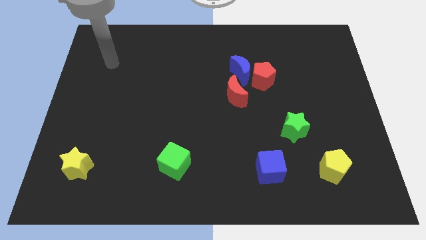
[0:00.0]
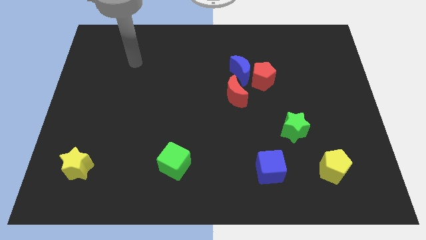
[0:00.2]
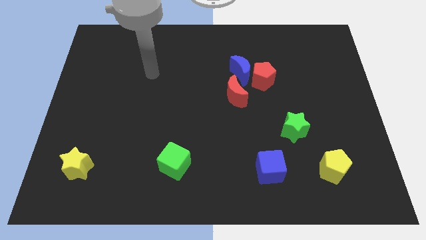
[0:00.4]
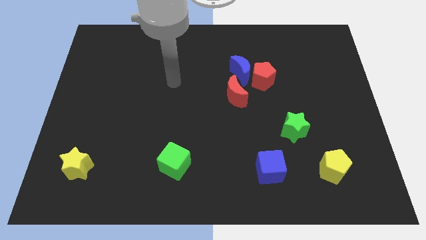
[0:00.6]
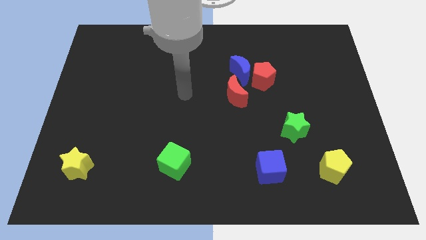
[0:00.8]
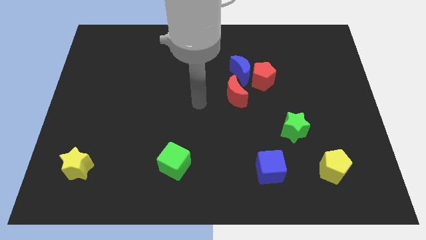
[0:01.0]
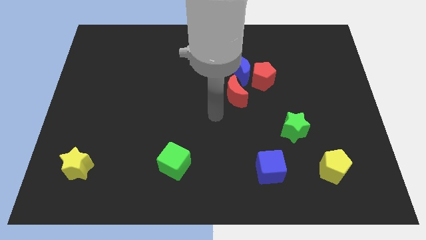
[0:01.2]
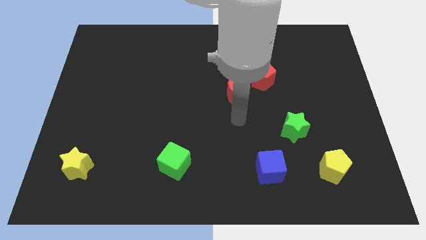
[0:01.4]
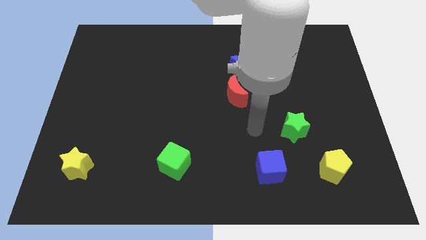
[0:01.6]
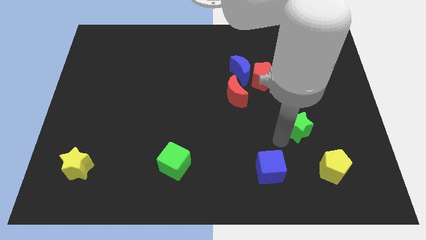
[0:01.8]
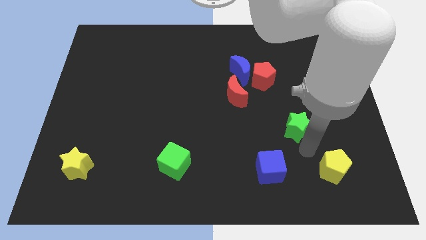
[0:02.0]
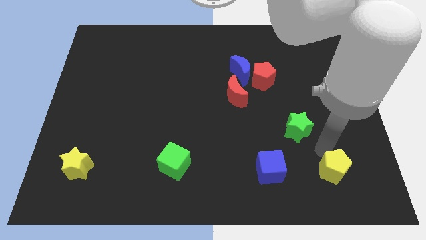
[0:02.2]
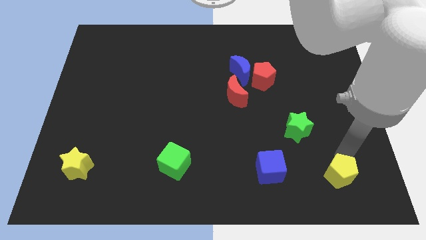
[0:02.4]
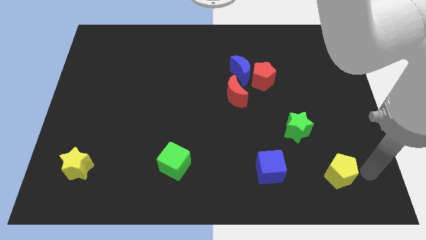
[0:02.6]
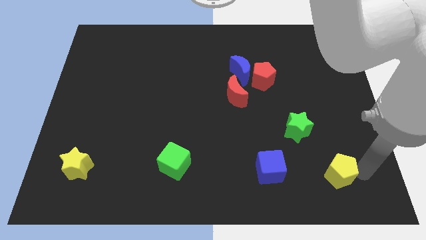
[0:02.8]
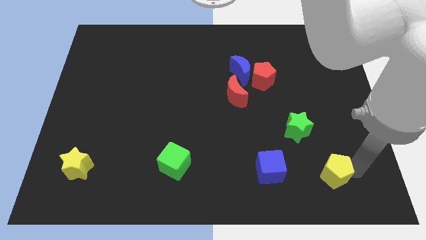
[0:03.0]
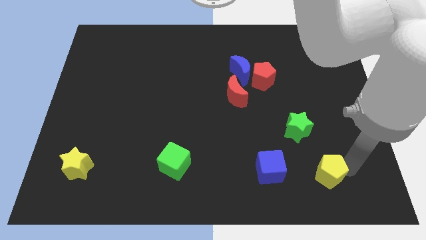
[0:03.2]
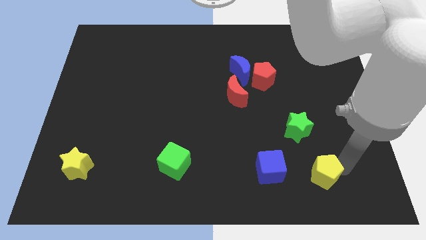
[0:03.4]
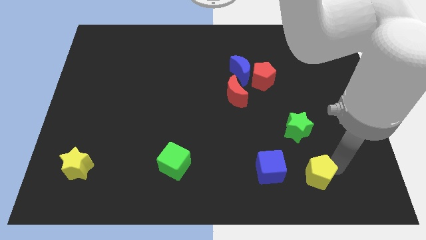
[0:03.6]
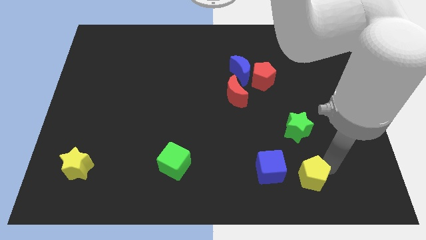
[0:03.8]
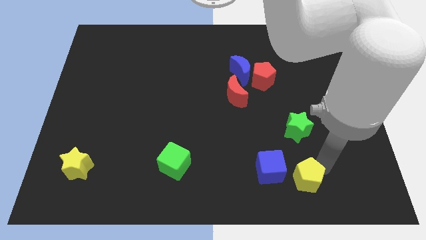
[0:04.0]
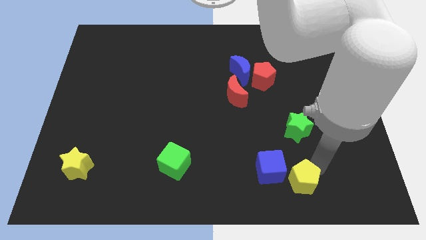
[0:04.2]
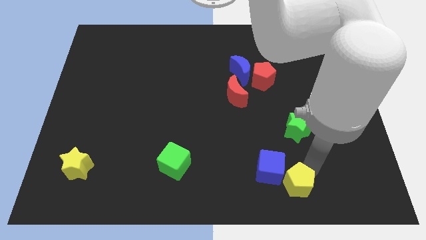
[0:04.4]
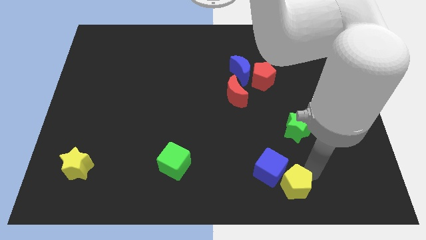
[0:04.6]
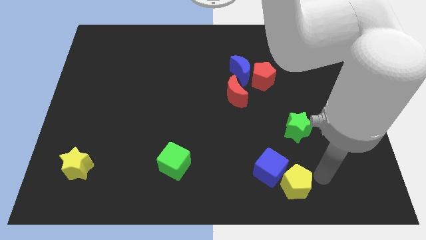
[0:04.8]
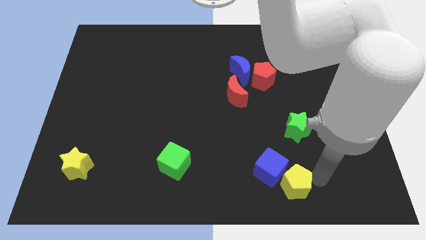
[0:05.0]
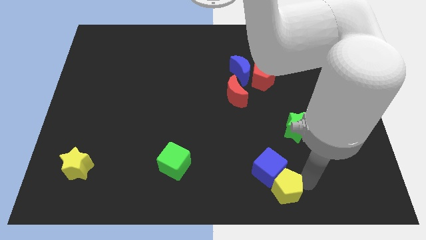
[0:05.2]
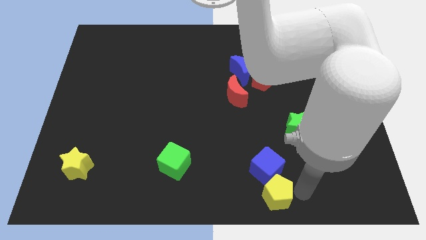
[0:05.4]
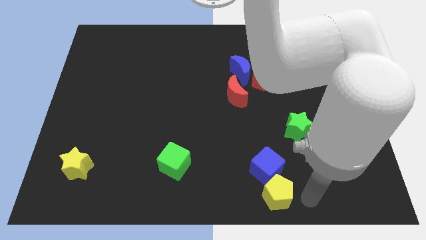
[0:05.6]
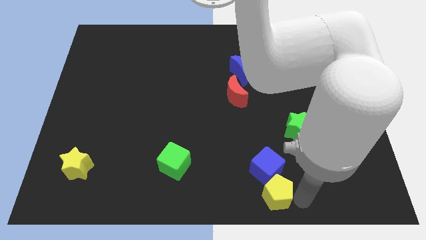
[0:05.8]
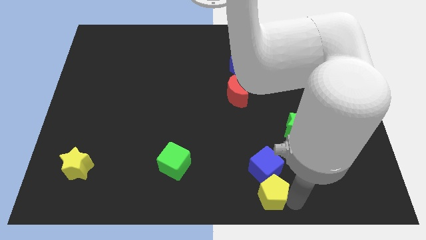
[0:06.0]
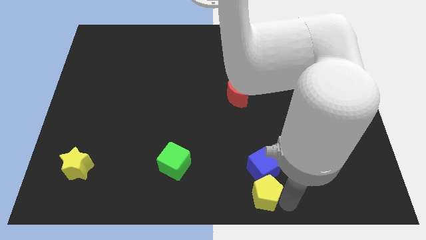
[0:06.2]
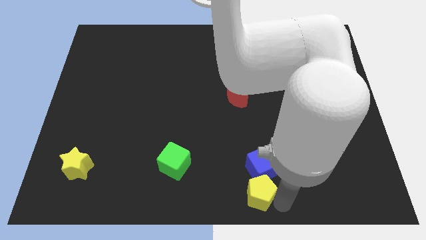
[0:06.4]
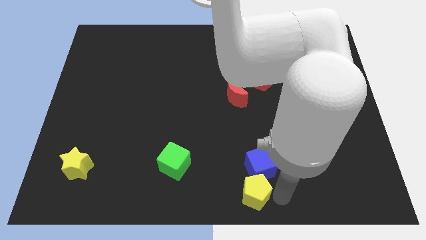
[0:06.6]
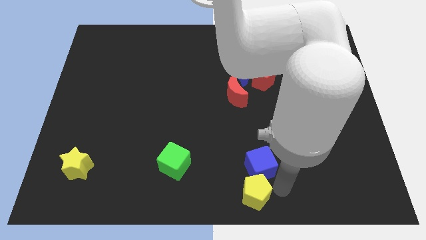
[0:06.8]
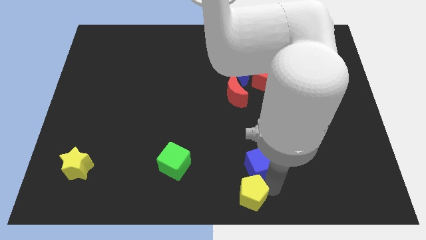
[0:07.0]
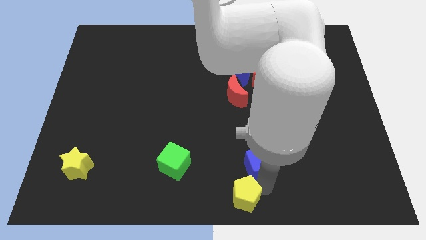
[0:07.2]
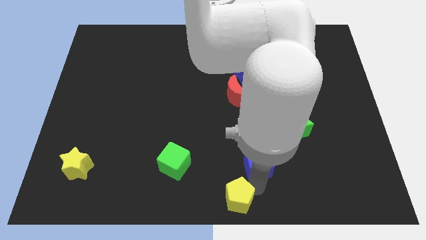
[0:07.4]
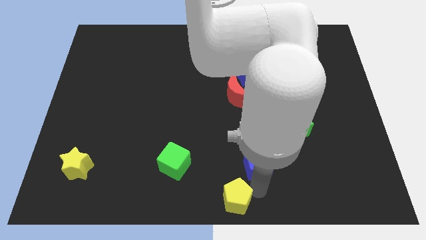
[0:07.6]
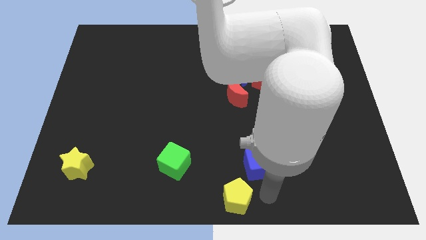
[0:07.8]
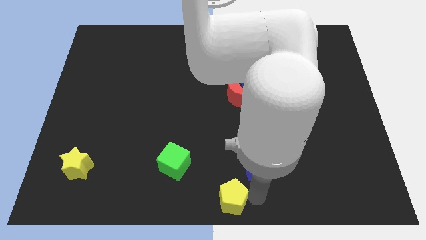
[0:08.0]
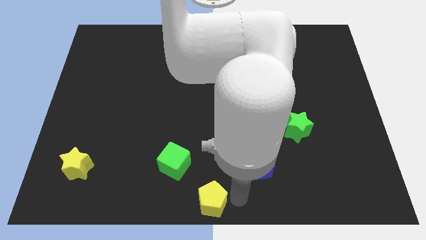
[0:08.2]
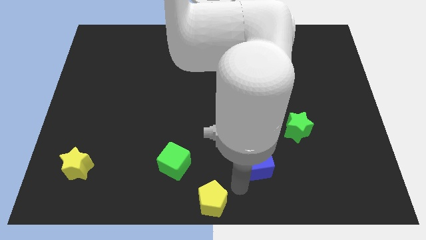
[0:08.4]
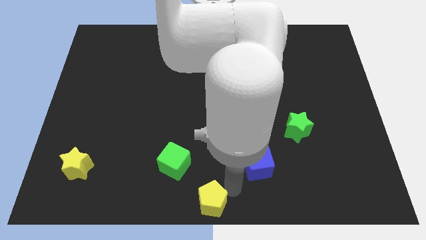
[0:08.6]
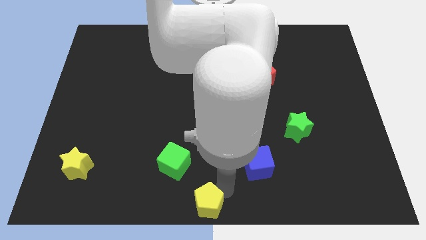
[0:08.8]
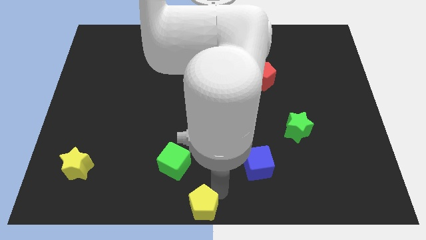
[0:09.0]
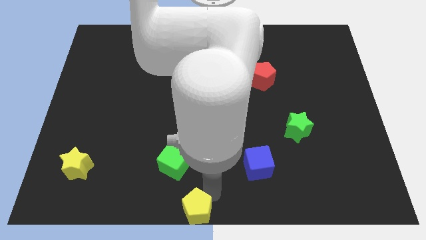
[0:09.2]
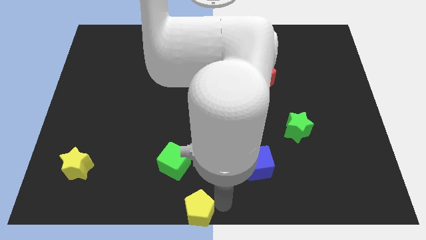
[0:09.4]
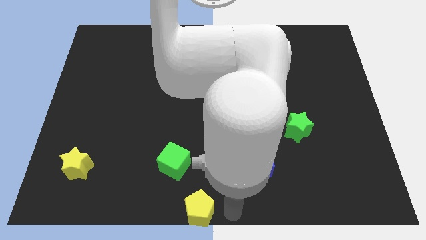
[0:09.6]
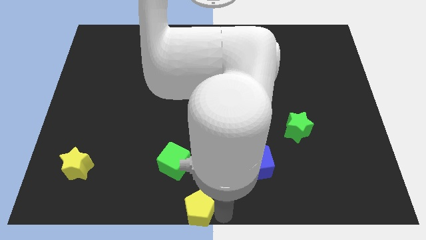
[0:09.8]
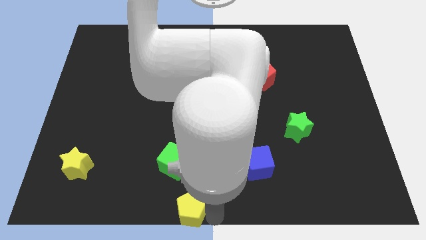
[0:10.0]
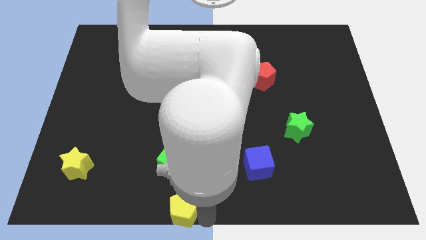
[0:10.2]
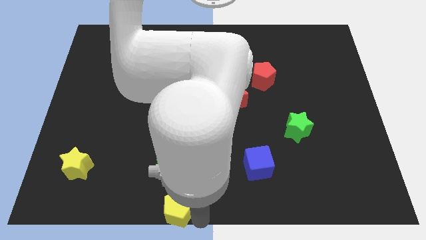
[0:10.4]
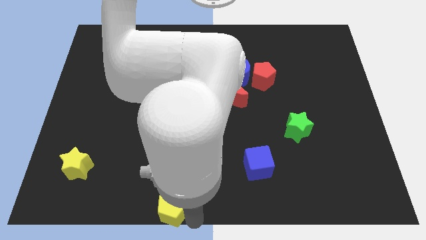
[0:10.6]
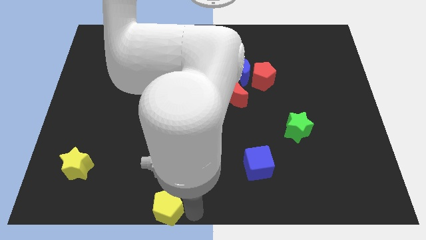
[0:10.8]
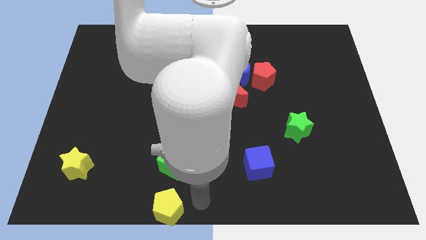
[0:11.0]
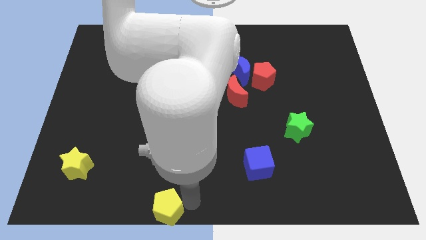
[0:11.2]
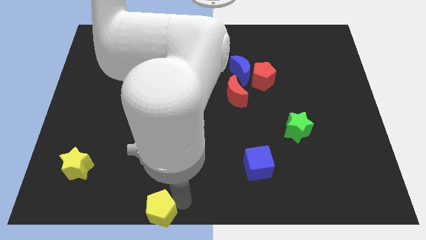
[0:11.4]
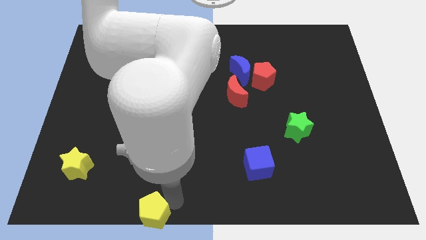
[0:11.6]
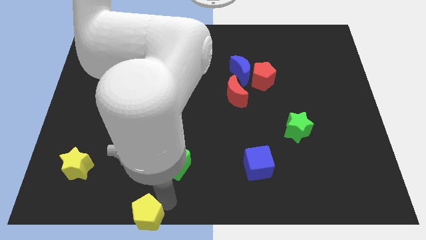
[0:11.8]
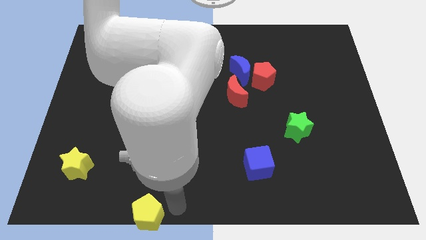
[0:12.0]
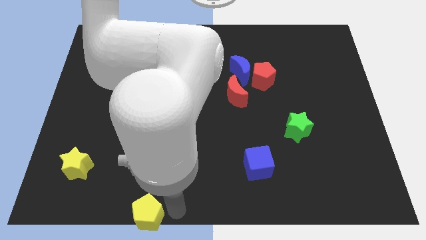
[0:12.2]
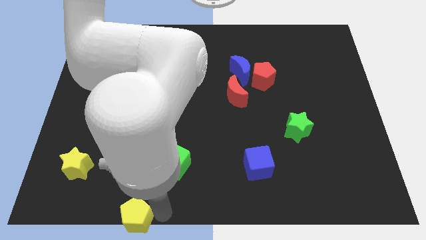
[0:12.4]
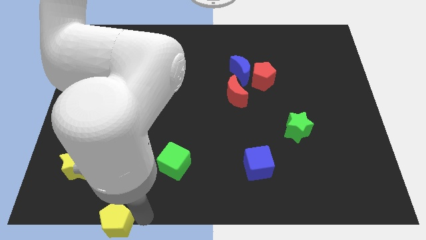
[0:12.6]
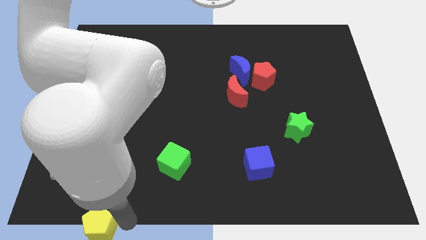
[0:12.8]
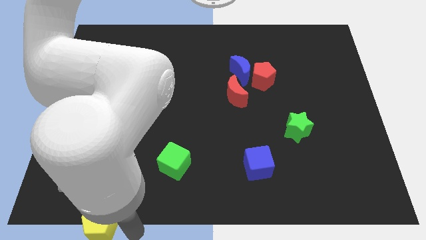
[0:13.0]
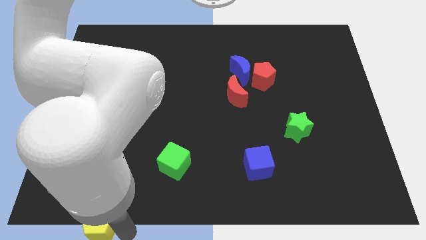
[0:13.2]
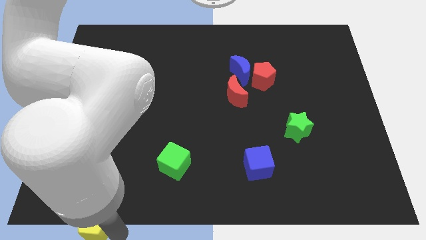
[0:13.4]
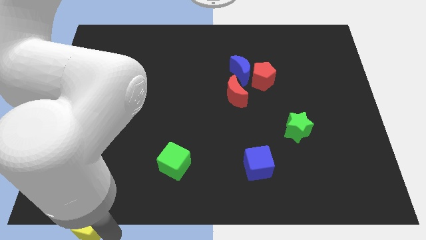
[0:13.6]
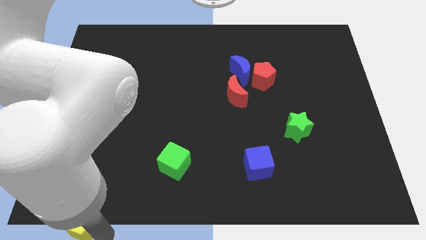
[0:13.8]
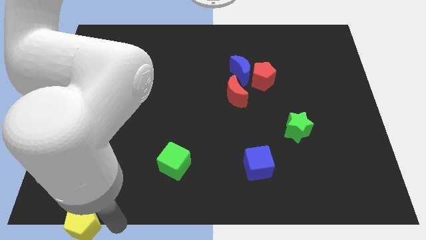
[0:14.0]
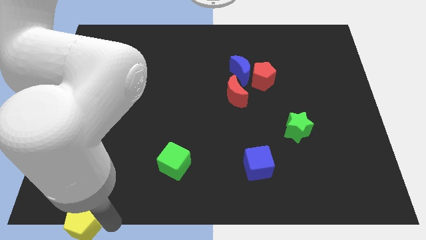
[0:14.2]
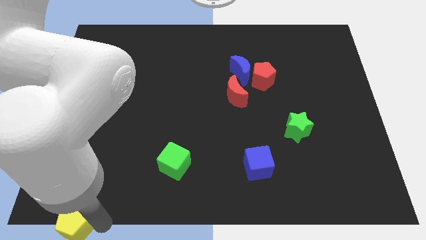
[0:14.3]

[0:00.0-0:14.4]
move the yellow pentagon to the bottom left corner

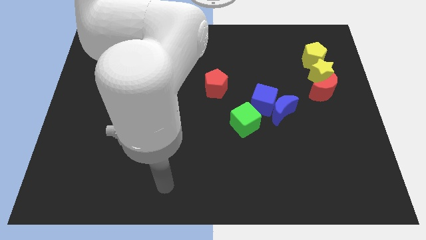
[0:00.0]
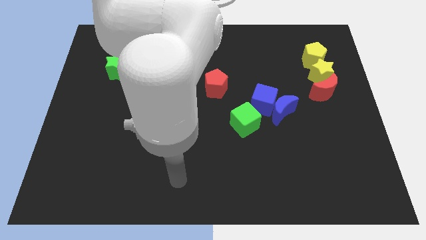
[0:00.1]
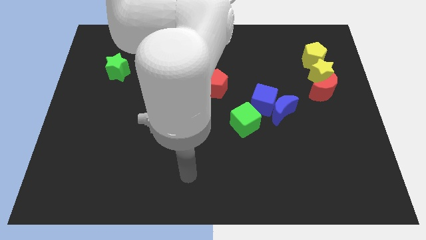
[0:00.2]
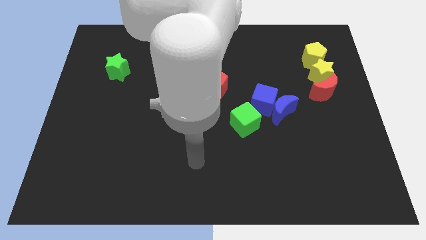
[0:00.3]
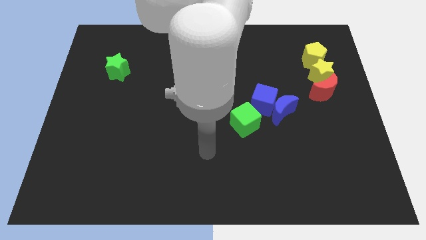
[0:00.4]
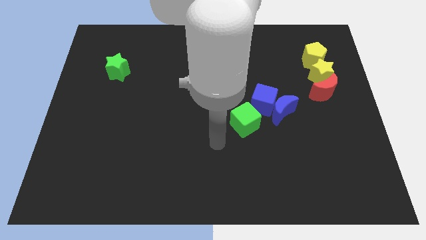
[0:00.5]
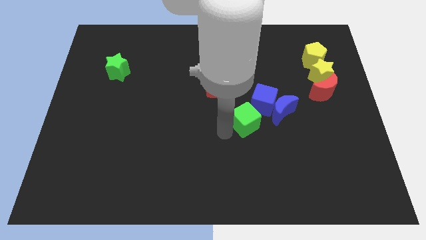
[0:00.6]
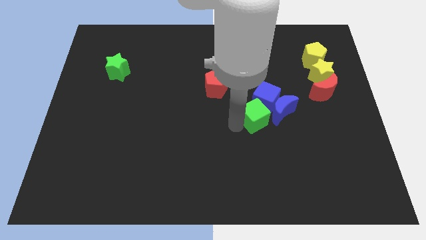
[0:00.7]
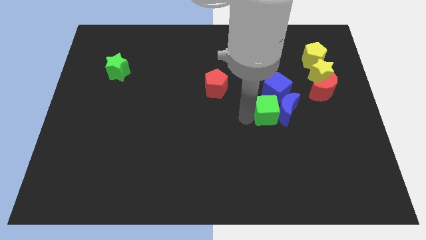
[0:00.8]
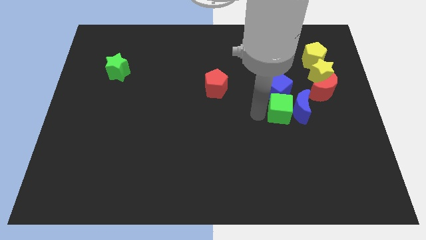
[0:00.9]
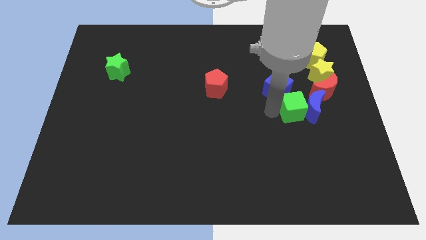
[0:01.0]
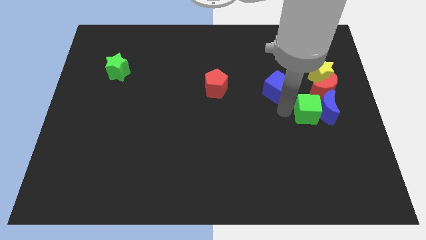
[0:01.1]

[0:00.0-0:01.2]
push the blue moon to the right side of the board
